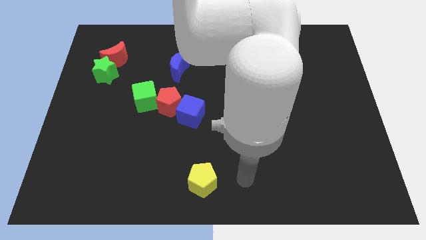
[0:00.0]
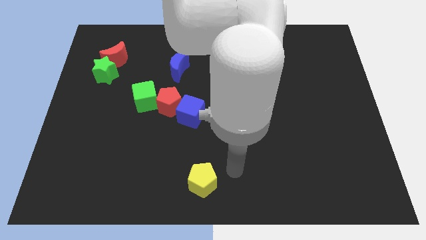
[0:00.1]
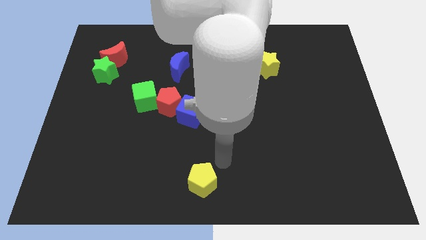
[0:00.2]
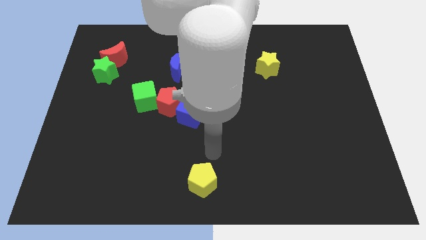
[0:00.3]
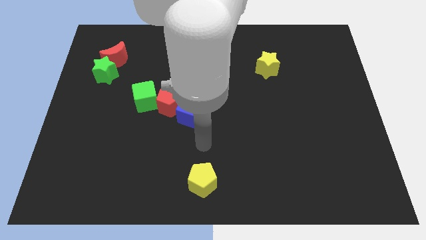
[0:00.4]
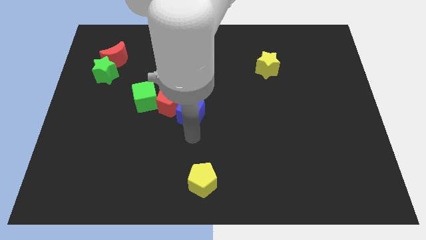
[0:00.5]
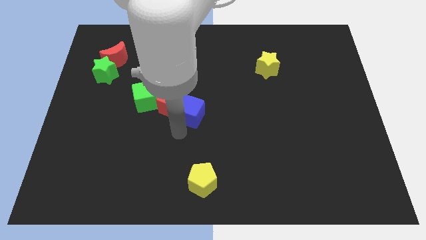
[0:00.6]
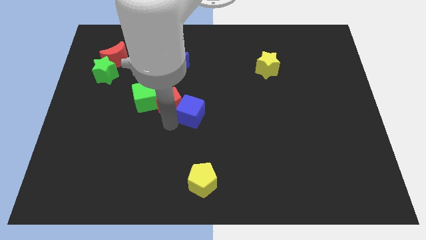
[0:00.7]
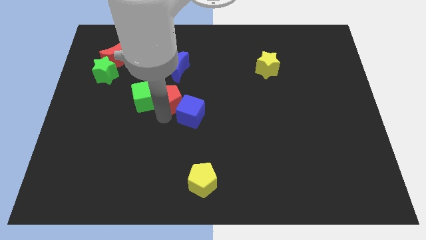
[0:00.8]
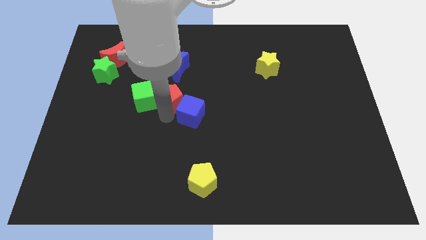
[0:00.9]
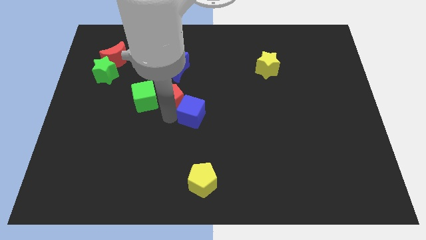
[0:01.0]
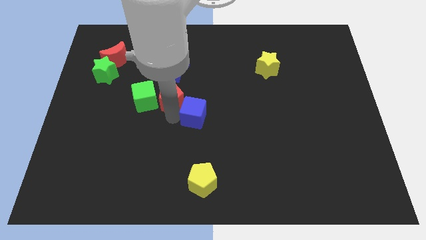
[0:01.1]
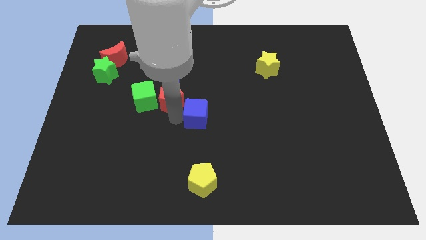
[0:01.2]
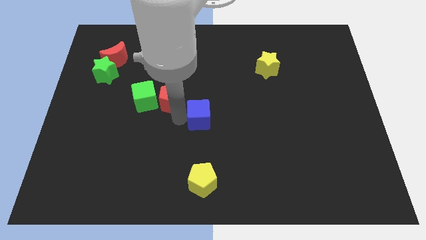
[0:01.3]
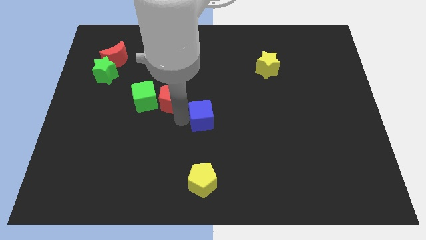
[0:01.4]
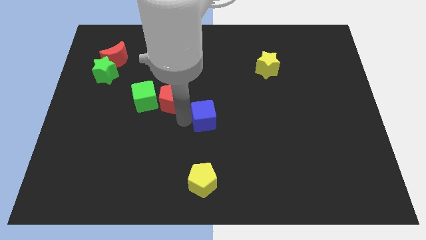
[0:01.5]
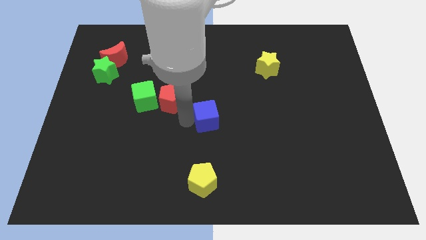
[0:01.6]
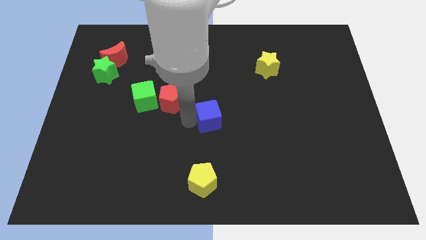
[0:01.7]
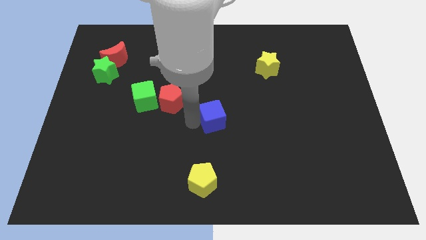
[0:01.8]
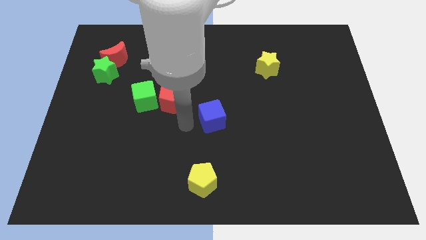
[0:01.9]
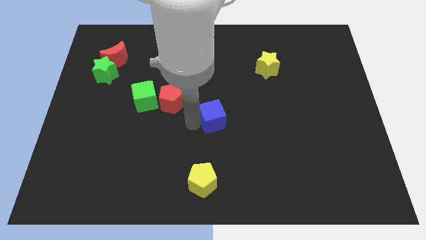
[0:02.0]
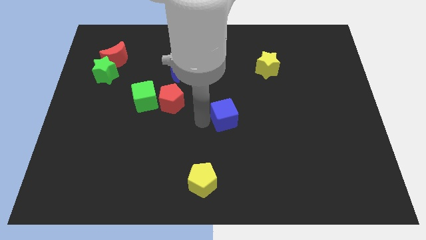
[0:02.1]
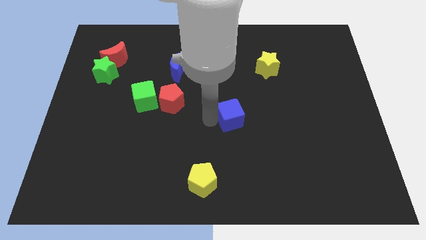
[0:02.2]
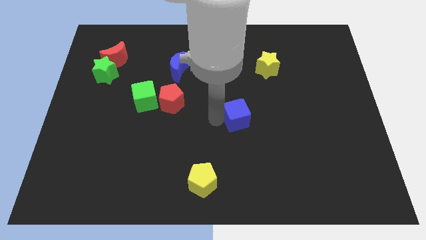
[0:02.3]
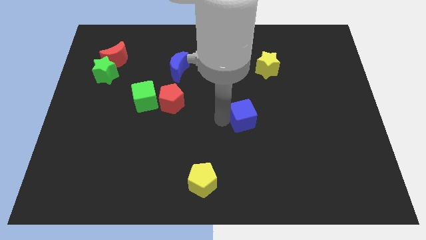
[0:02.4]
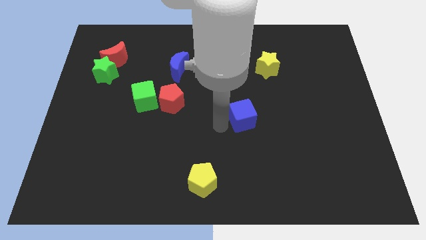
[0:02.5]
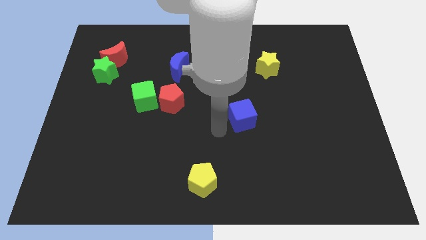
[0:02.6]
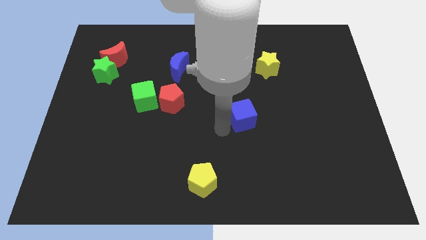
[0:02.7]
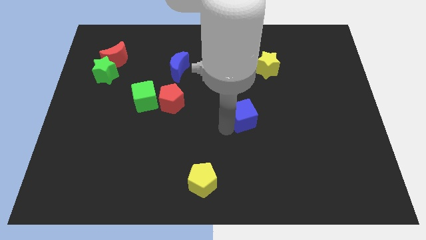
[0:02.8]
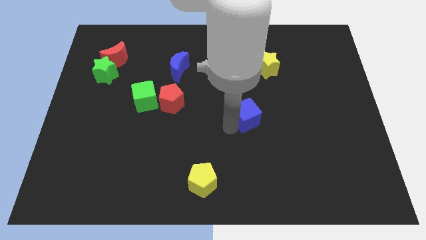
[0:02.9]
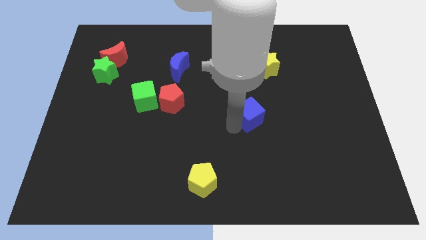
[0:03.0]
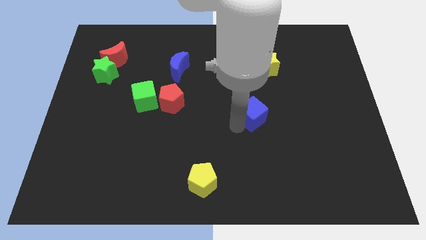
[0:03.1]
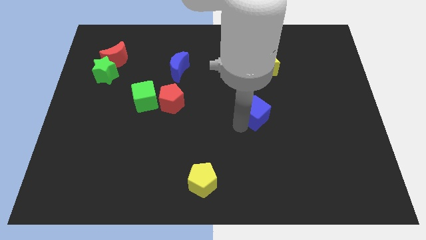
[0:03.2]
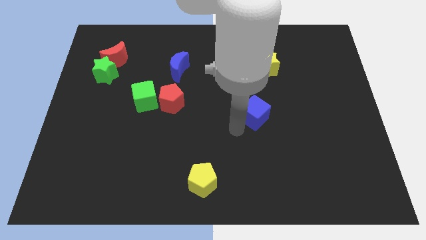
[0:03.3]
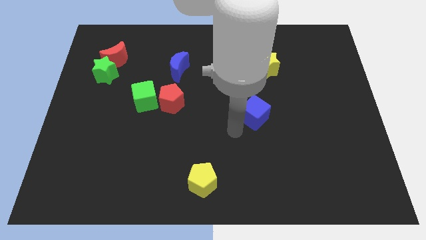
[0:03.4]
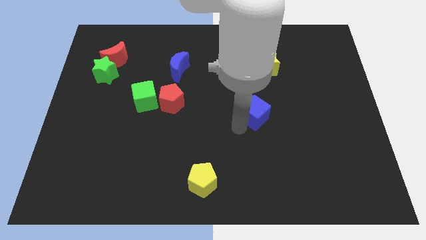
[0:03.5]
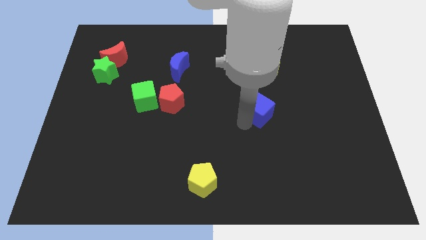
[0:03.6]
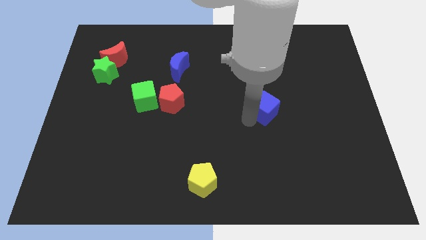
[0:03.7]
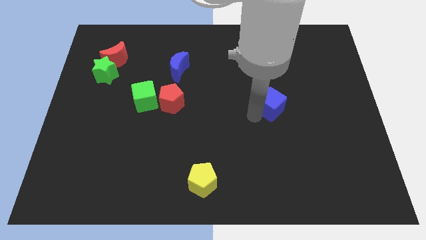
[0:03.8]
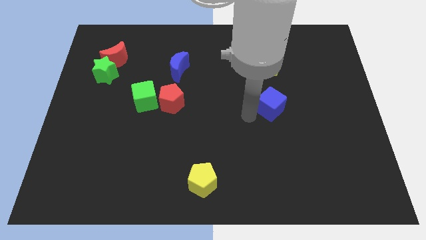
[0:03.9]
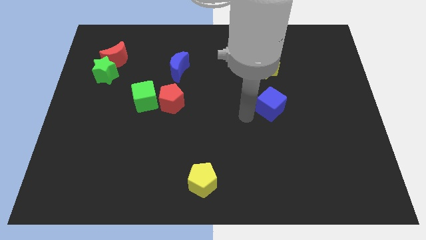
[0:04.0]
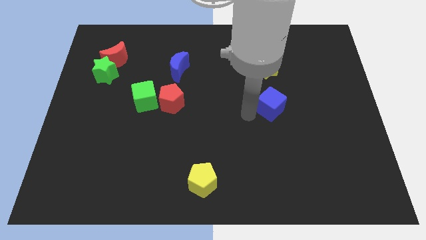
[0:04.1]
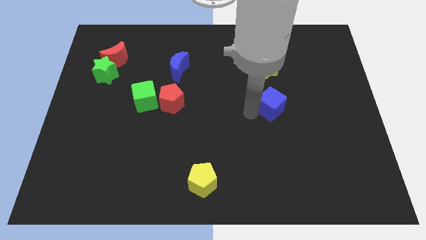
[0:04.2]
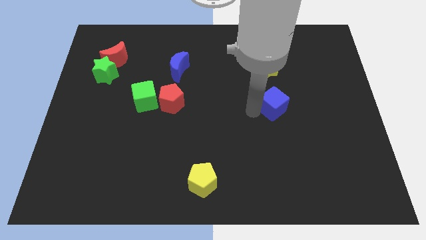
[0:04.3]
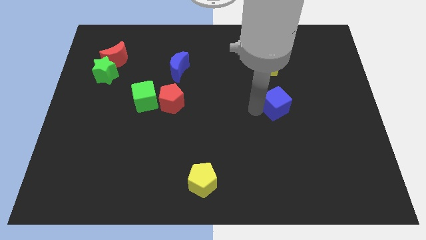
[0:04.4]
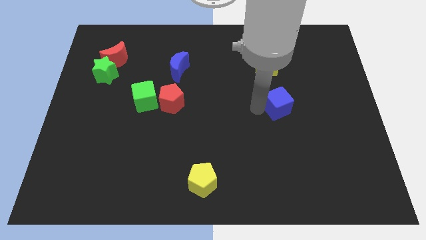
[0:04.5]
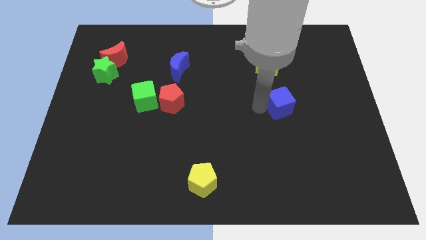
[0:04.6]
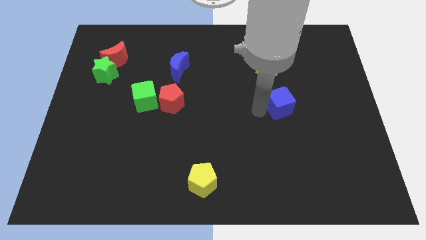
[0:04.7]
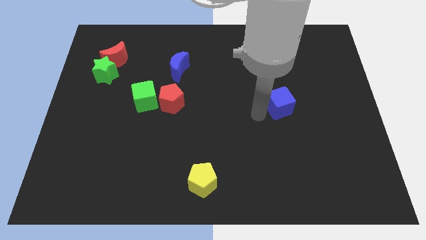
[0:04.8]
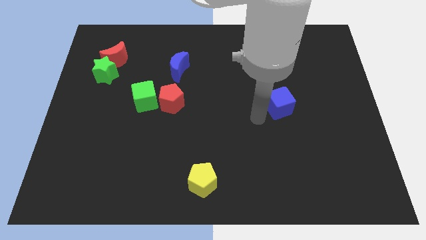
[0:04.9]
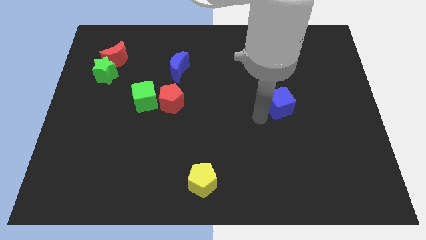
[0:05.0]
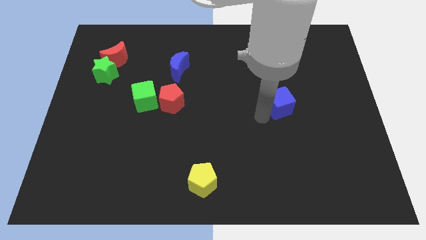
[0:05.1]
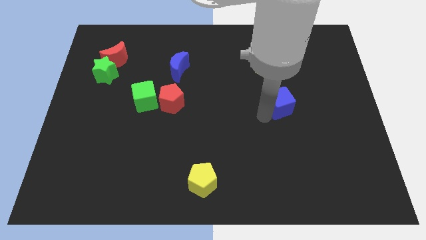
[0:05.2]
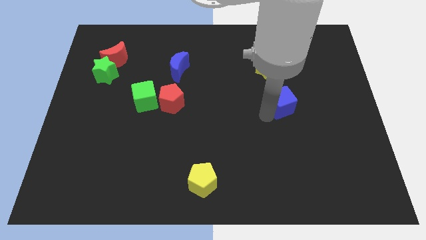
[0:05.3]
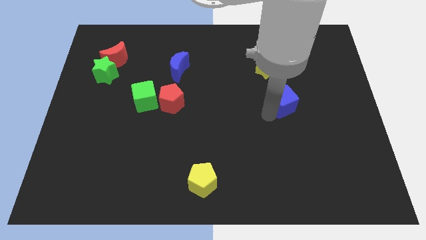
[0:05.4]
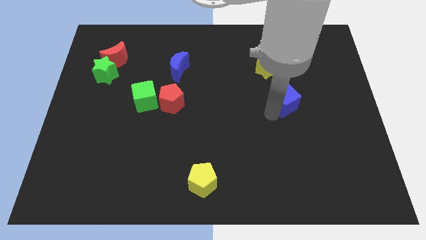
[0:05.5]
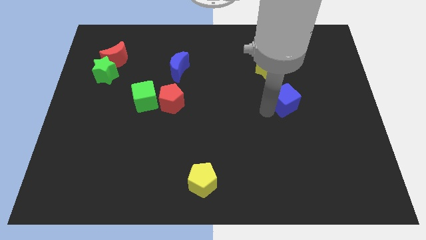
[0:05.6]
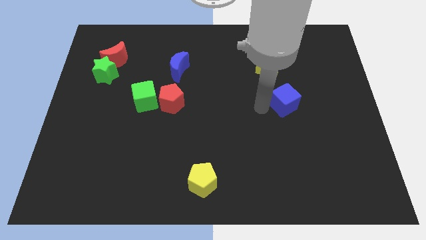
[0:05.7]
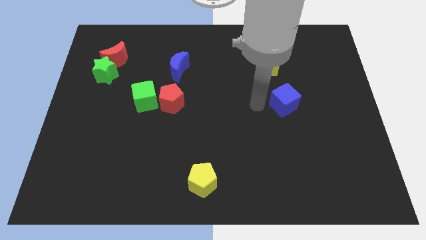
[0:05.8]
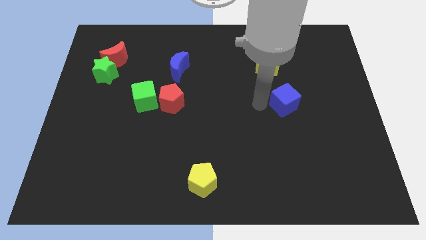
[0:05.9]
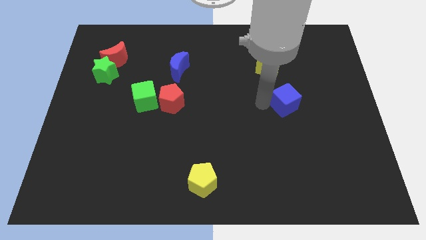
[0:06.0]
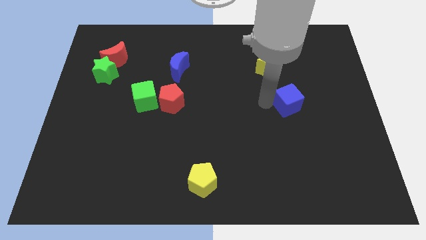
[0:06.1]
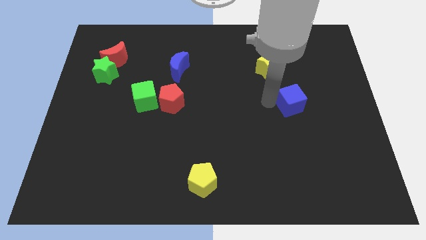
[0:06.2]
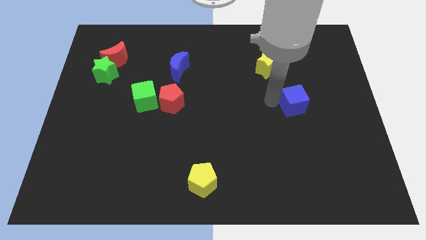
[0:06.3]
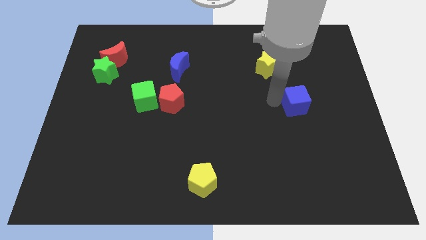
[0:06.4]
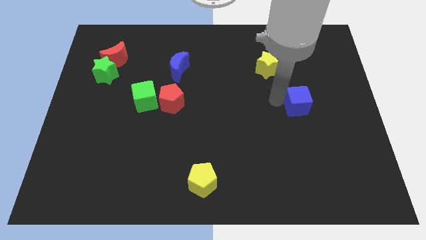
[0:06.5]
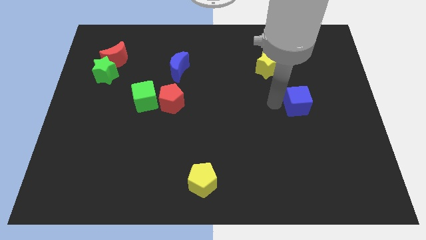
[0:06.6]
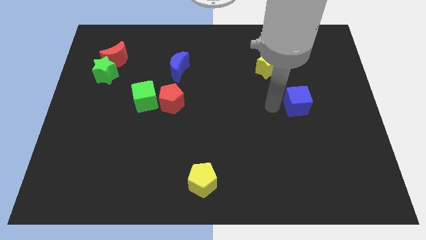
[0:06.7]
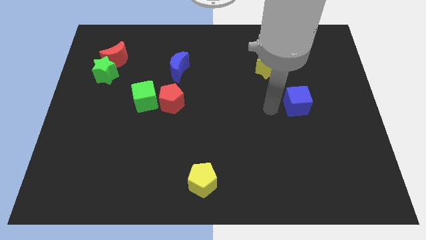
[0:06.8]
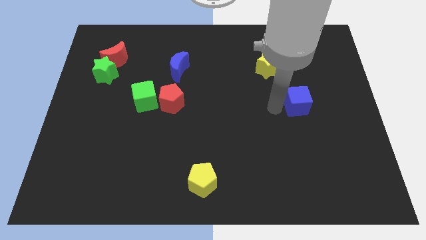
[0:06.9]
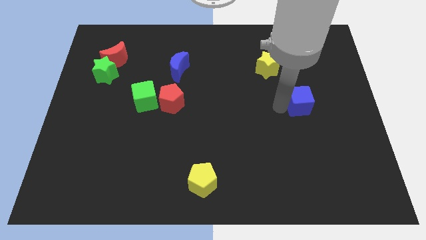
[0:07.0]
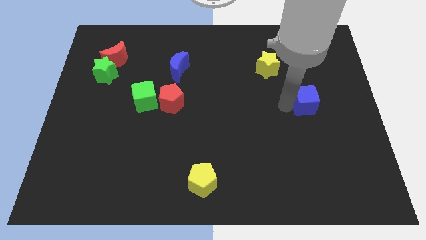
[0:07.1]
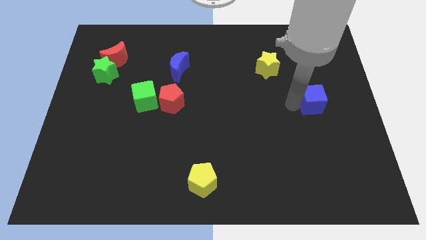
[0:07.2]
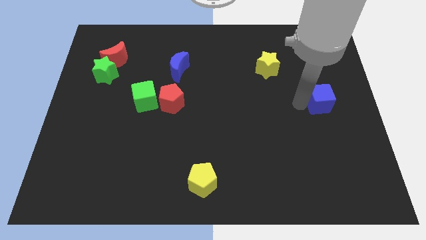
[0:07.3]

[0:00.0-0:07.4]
move the blue cube to the right side of the board
